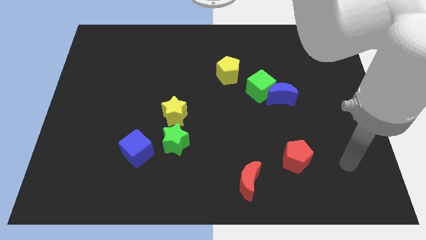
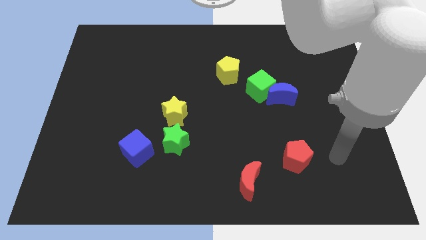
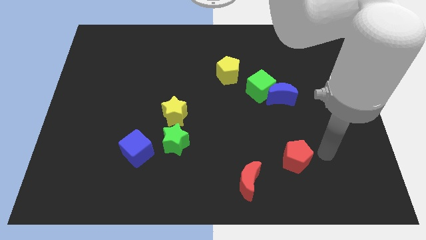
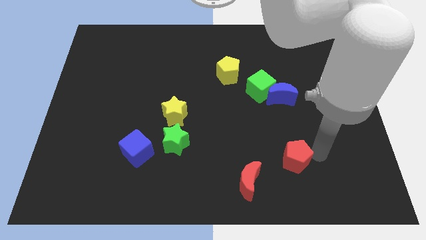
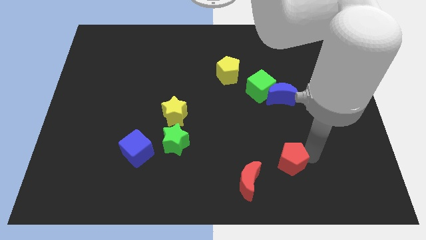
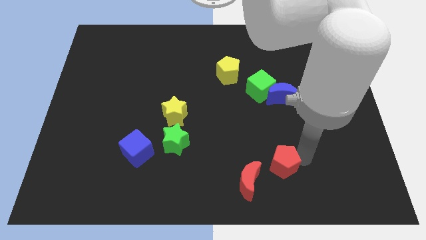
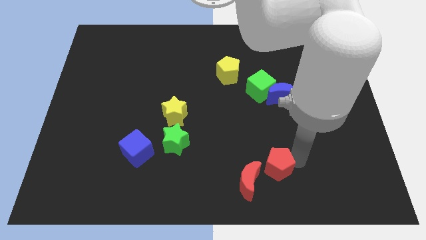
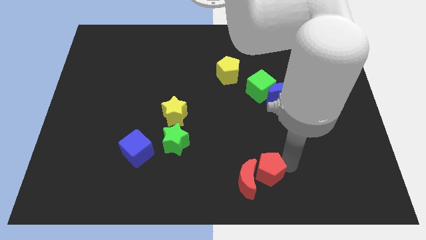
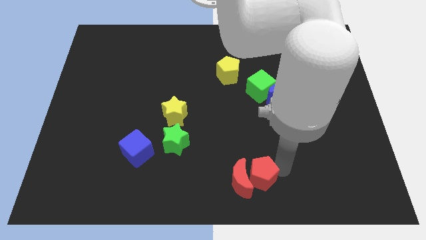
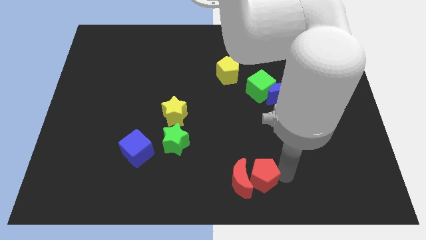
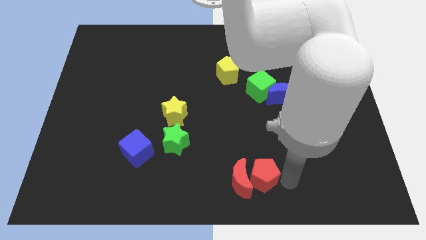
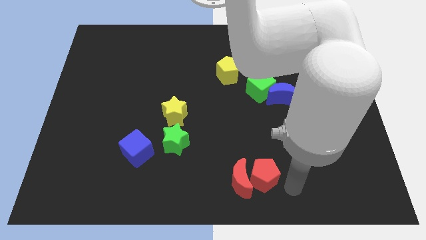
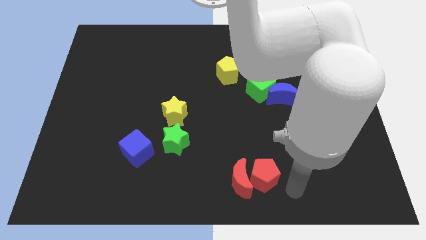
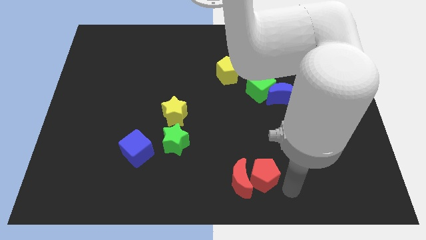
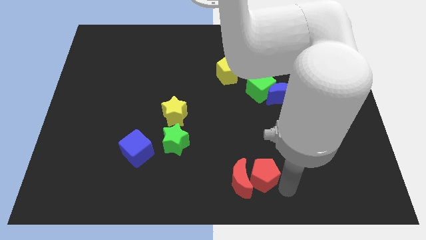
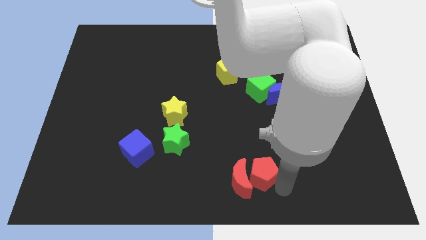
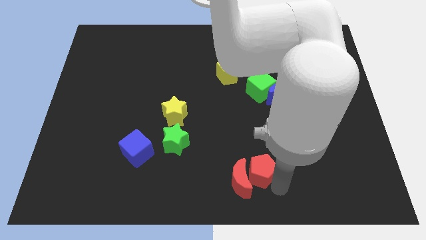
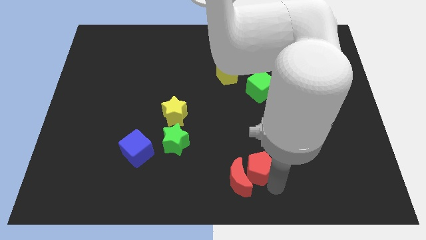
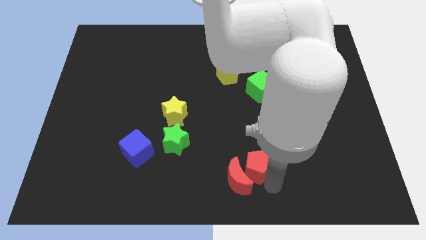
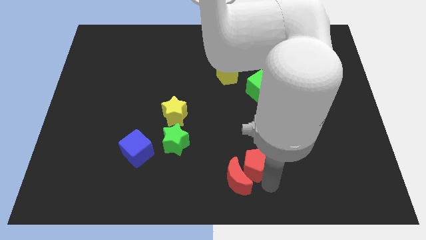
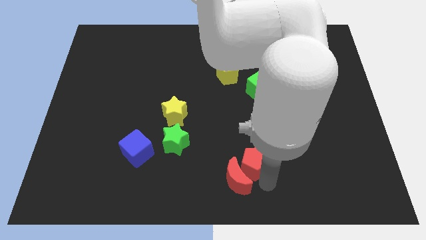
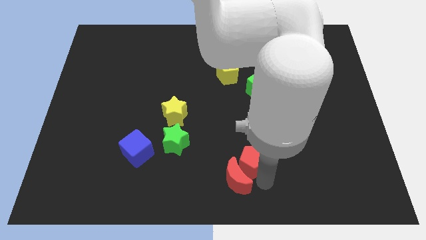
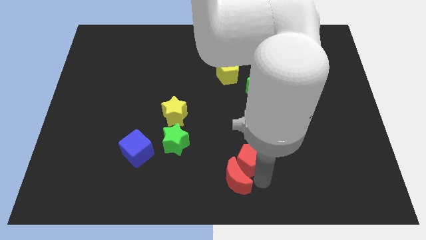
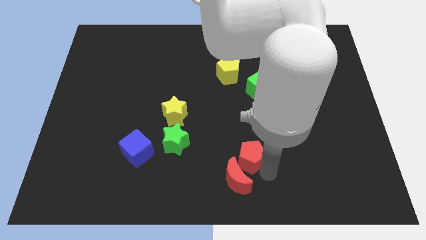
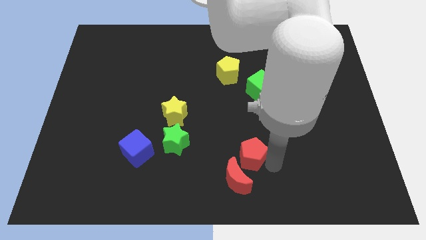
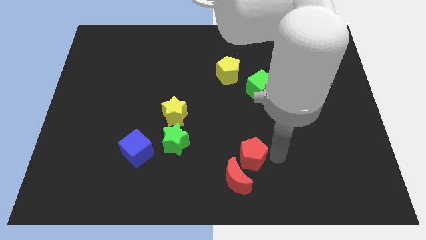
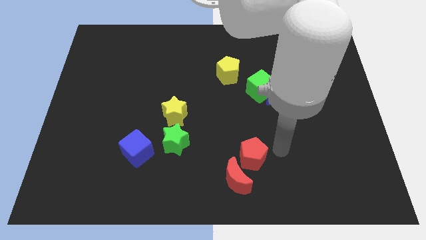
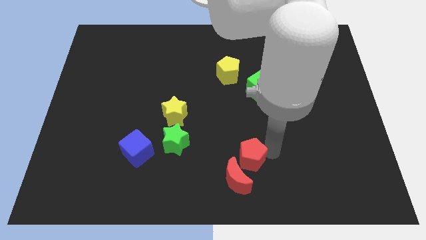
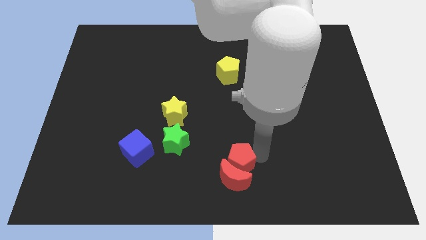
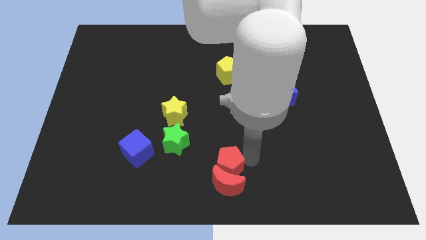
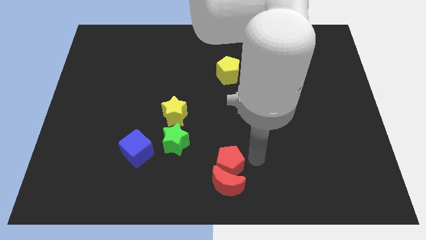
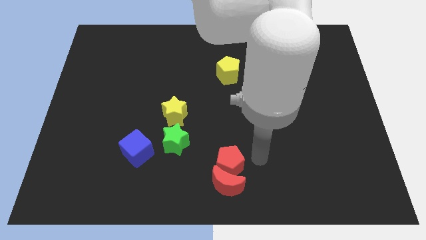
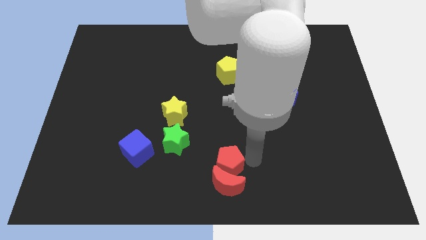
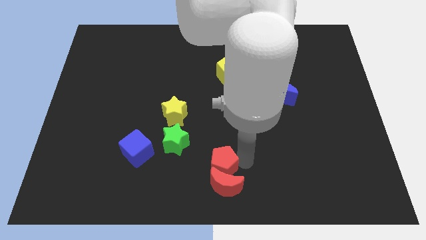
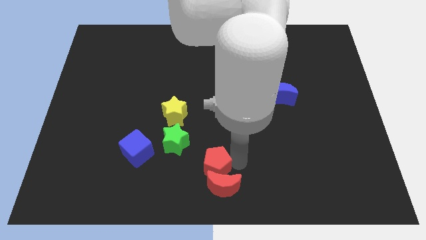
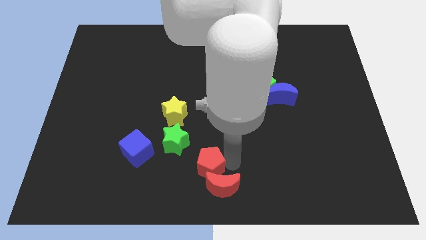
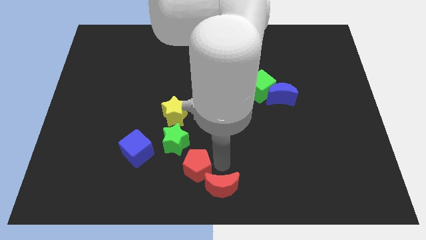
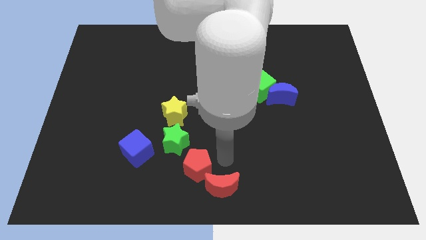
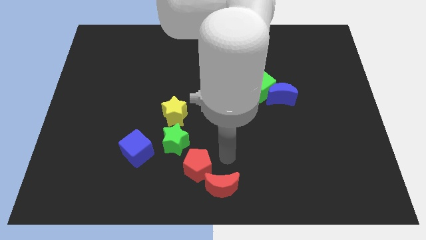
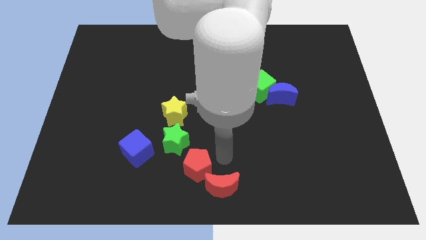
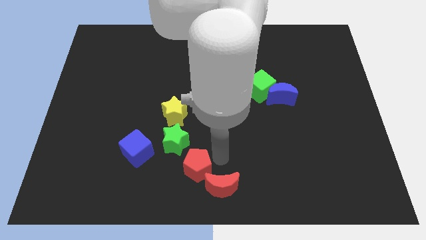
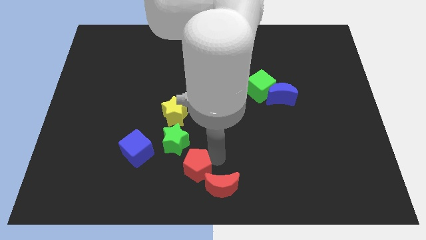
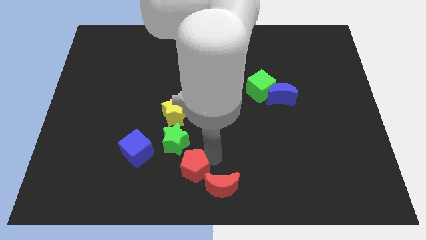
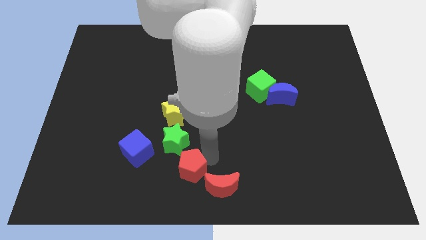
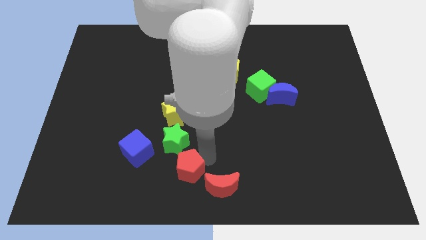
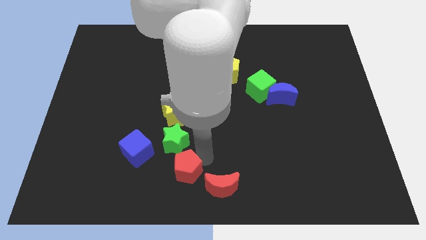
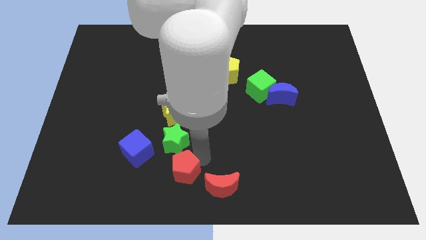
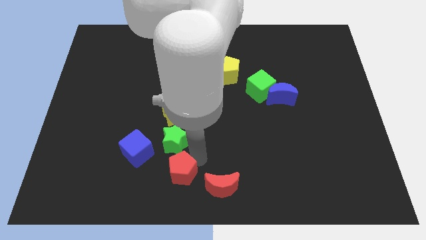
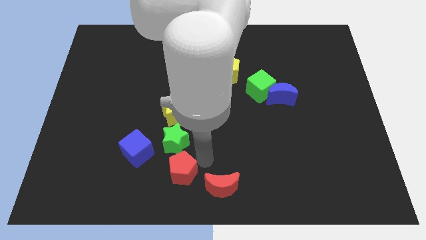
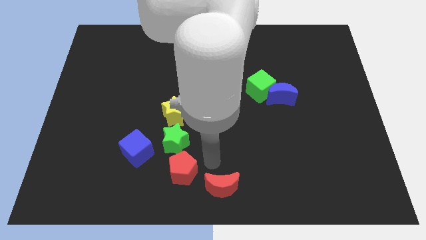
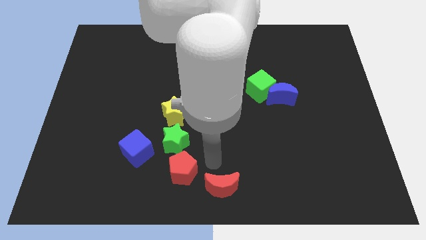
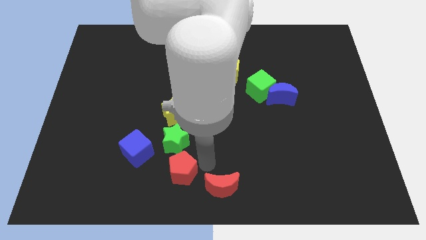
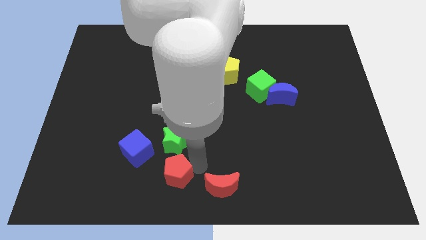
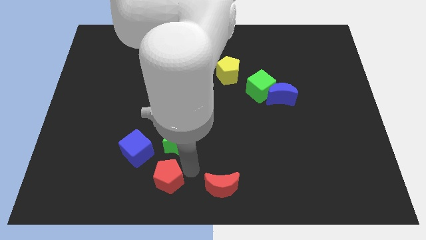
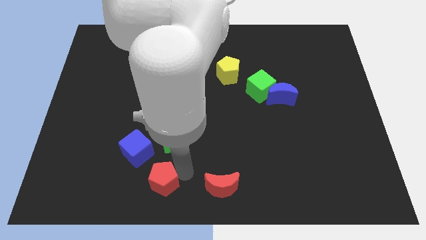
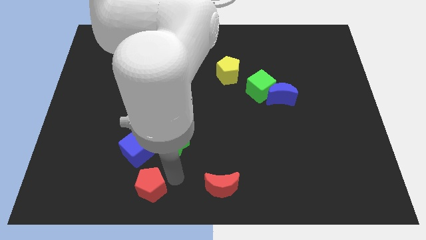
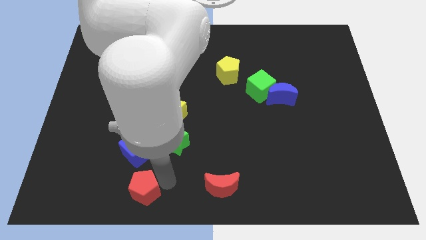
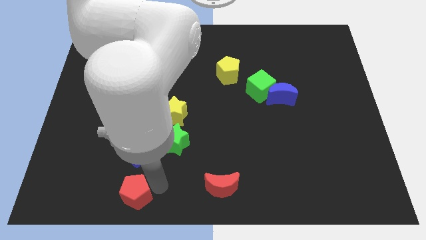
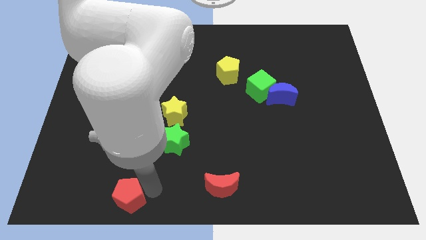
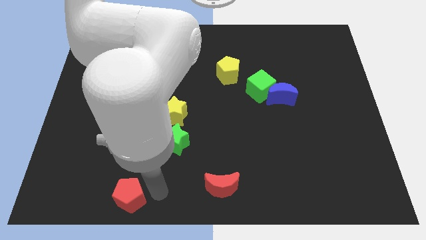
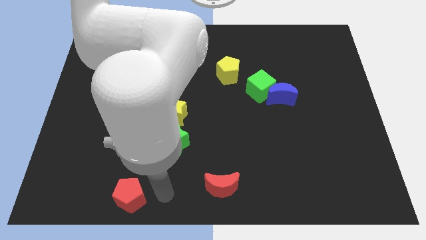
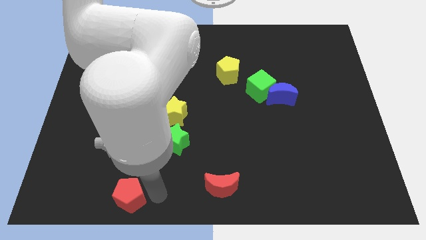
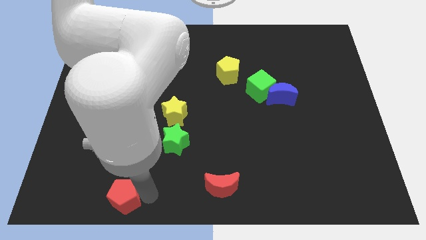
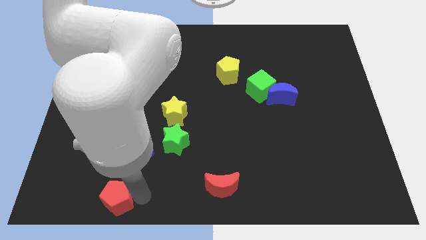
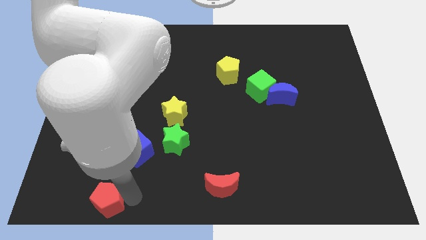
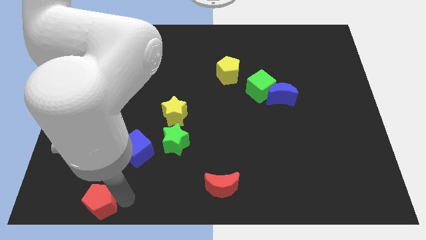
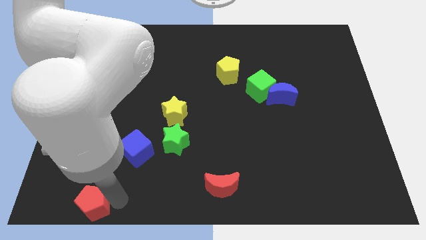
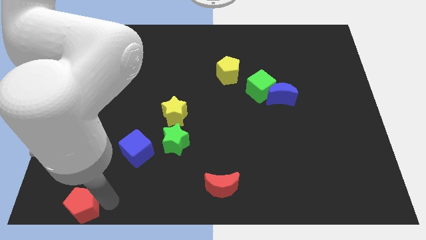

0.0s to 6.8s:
move the red pentagon to the bottom left
